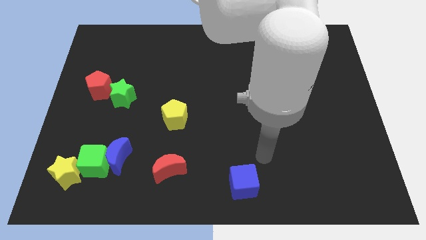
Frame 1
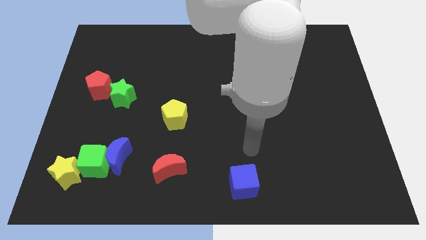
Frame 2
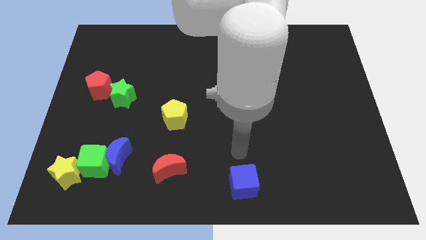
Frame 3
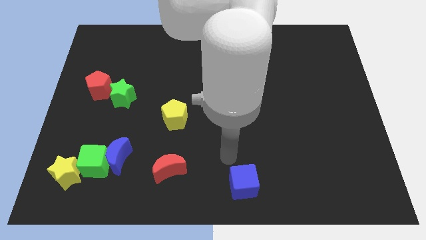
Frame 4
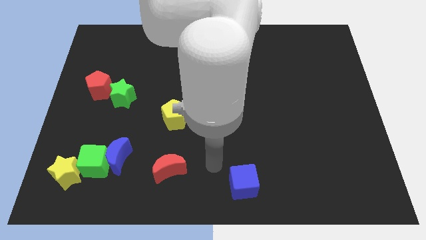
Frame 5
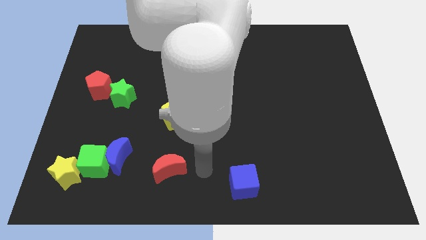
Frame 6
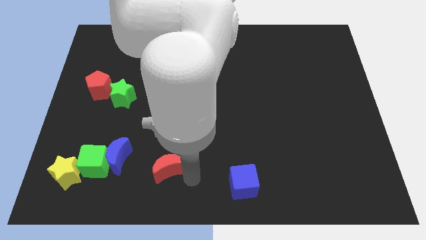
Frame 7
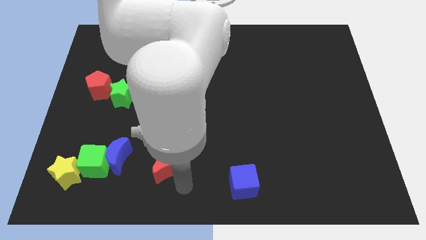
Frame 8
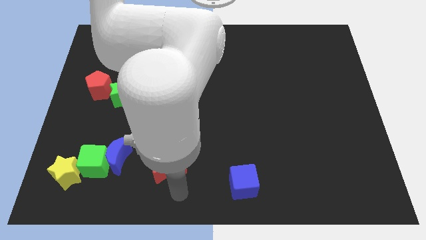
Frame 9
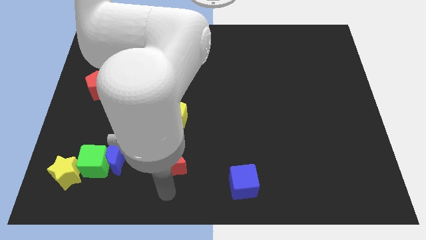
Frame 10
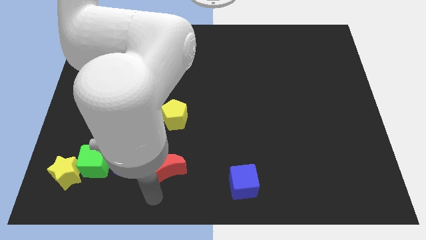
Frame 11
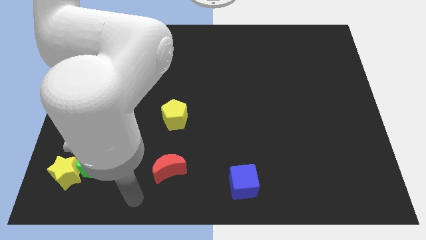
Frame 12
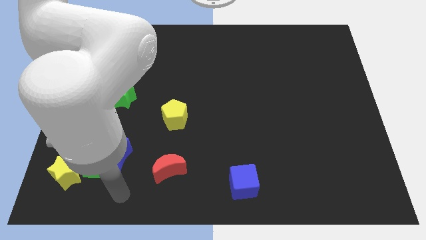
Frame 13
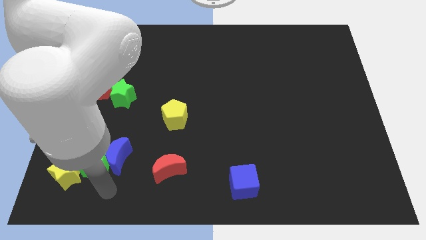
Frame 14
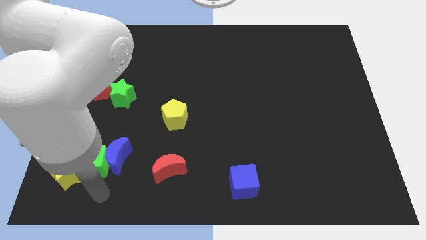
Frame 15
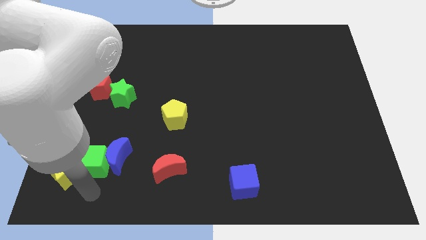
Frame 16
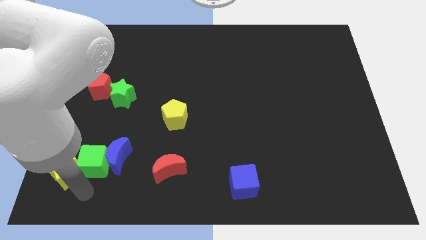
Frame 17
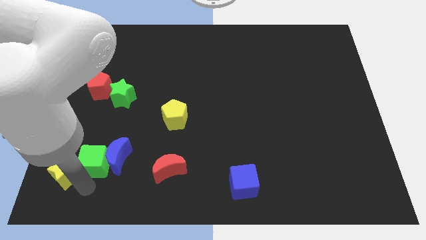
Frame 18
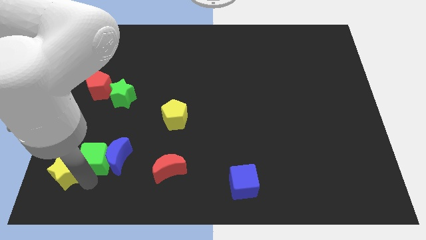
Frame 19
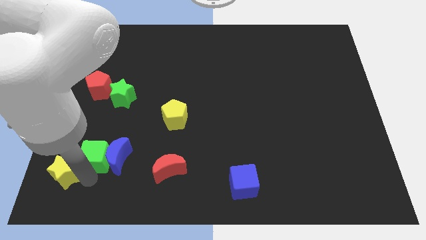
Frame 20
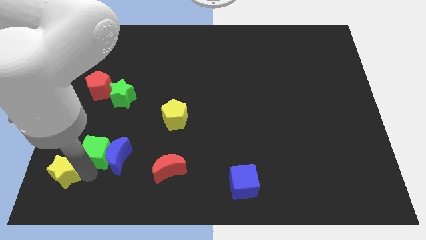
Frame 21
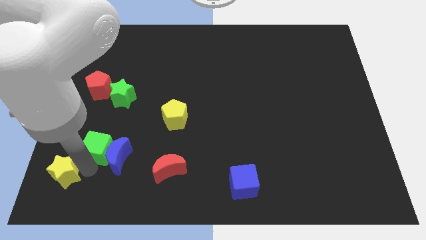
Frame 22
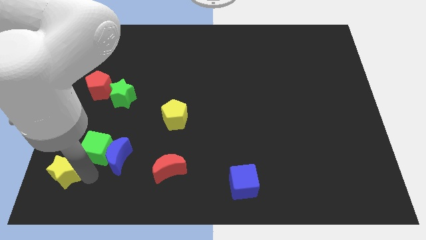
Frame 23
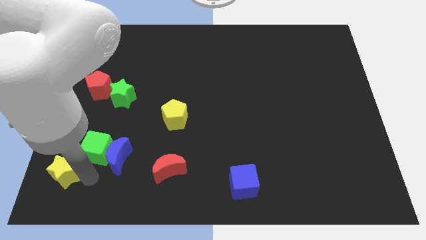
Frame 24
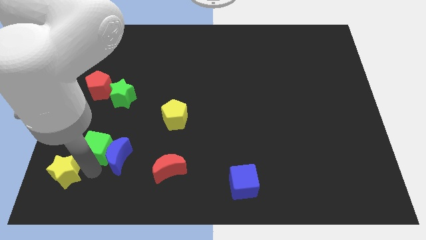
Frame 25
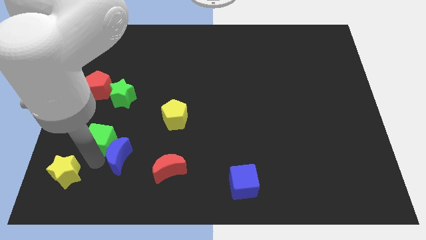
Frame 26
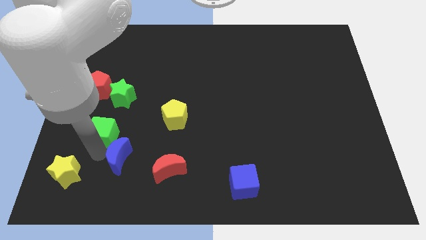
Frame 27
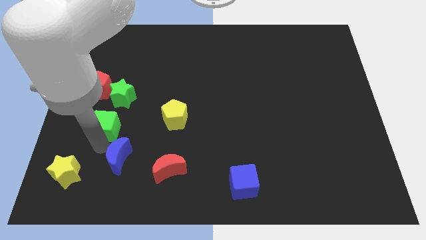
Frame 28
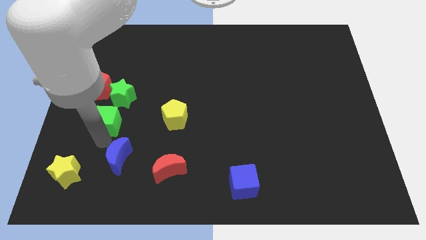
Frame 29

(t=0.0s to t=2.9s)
pull the green cube apart from the blue moon and yellow star

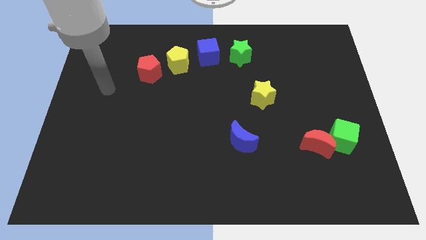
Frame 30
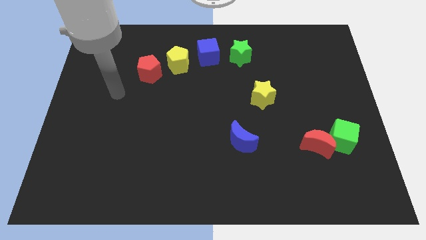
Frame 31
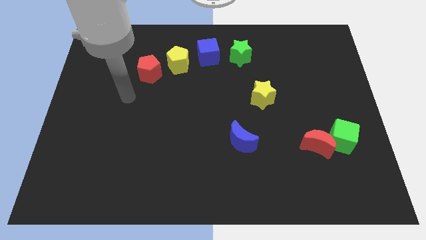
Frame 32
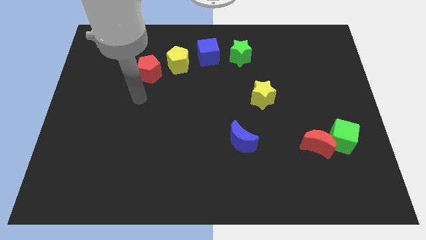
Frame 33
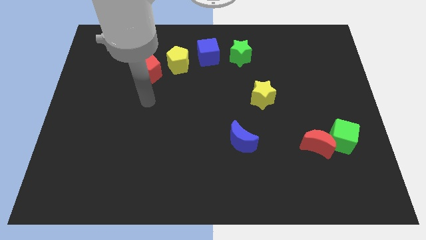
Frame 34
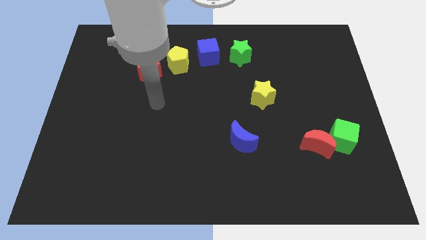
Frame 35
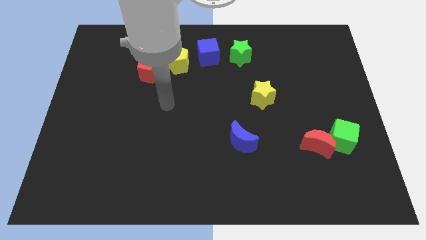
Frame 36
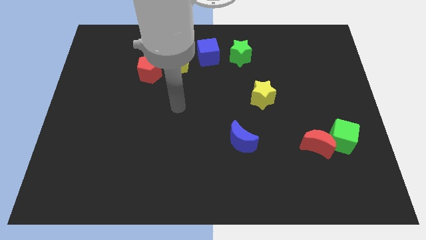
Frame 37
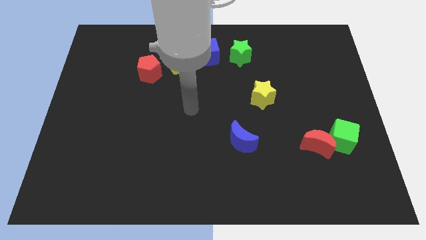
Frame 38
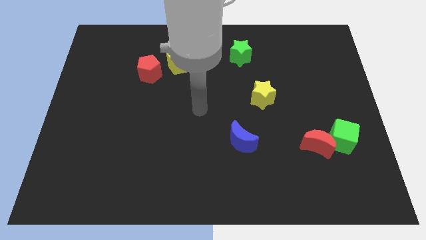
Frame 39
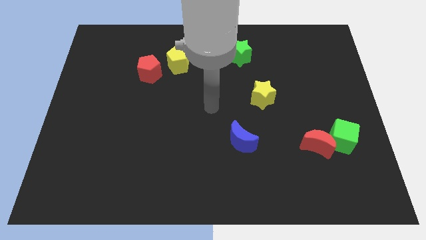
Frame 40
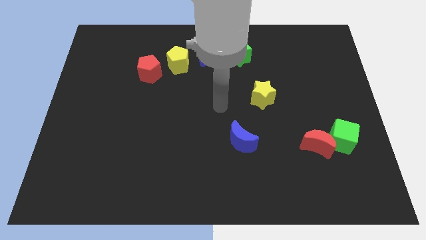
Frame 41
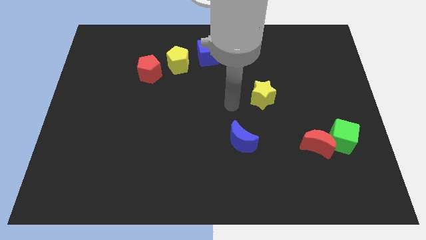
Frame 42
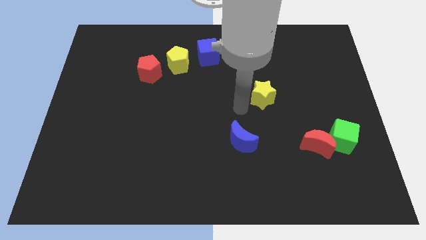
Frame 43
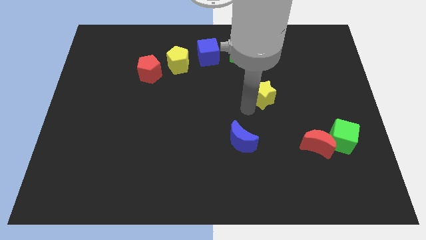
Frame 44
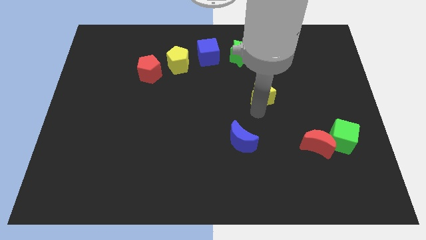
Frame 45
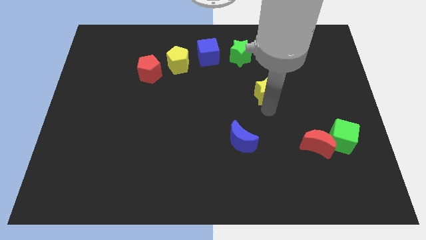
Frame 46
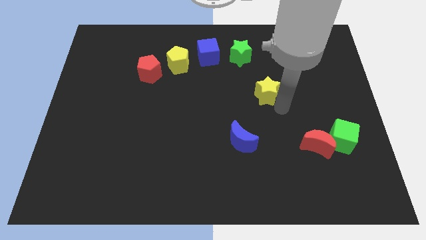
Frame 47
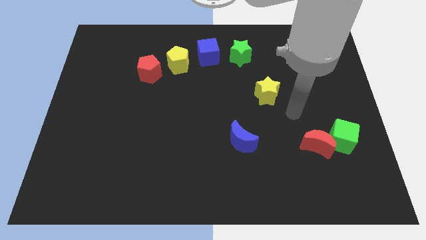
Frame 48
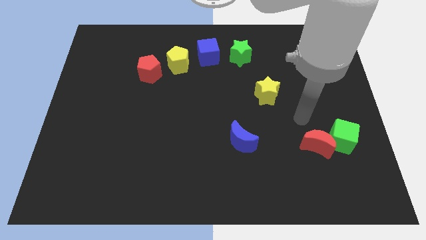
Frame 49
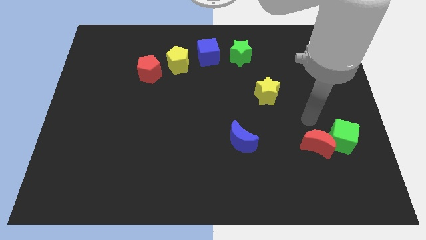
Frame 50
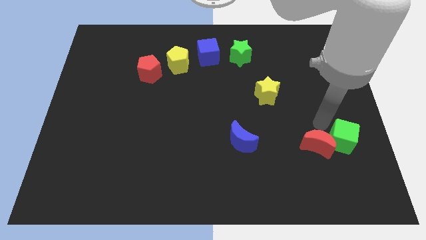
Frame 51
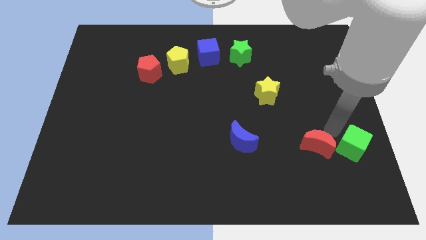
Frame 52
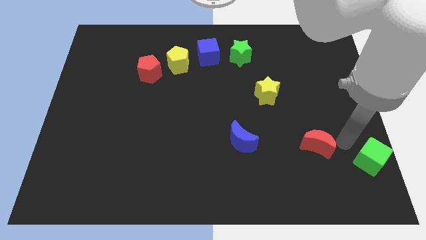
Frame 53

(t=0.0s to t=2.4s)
pull the red moon apart from the green cube

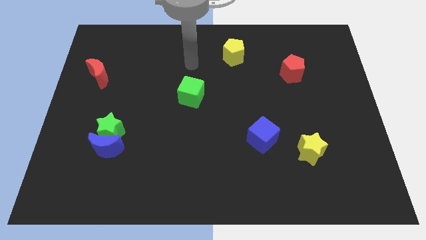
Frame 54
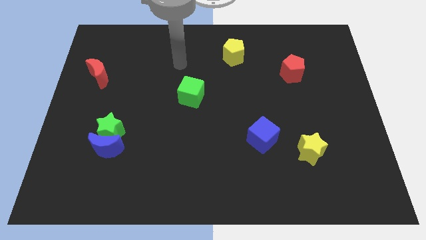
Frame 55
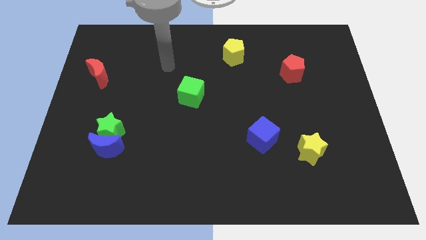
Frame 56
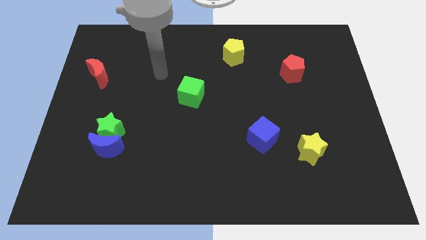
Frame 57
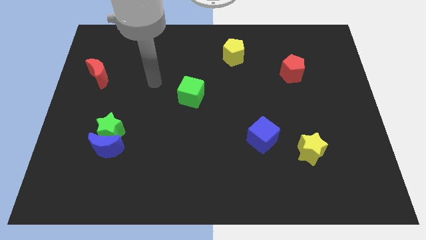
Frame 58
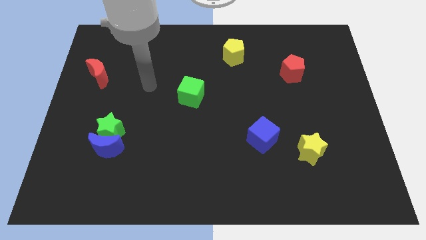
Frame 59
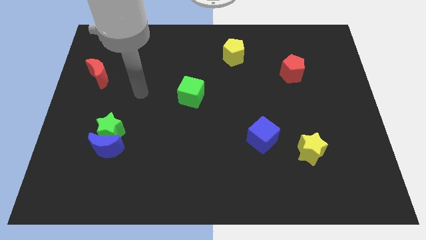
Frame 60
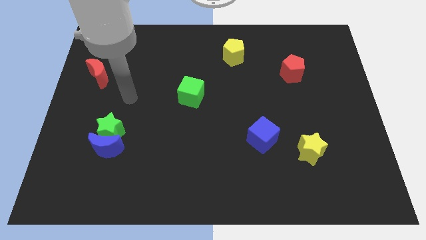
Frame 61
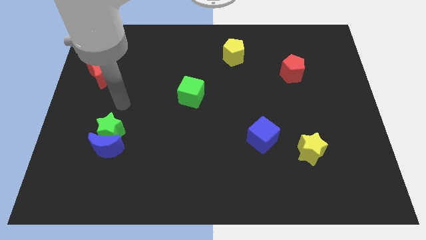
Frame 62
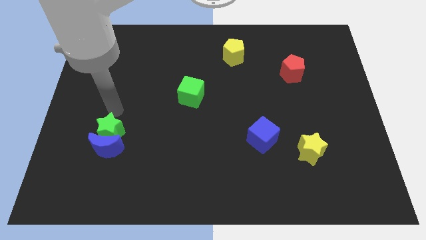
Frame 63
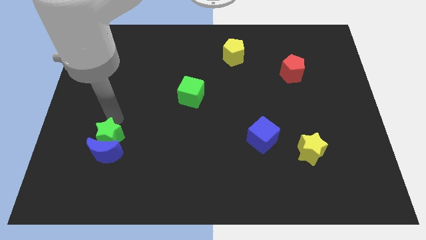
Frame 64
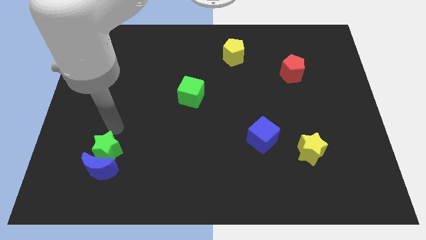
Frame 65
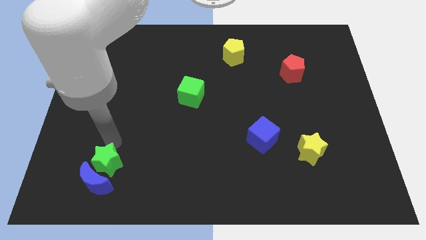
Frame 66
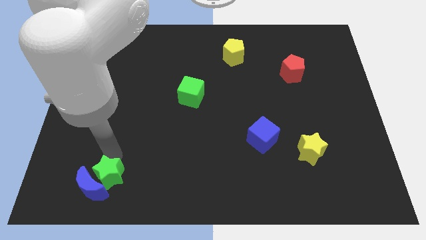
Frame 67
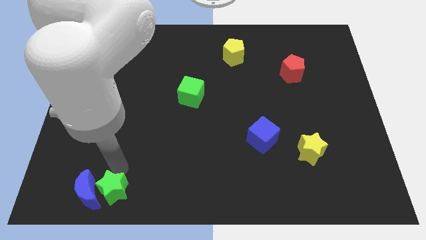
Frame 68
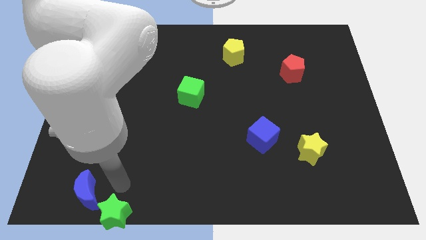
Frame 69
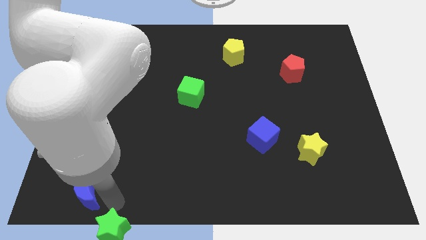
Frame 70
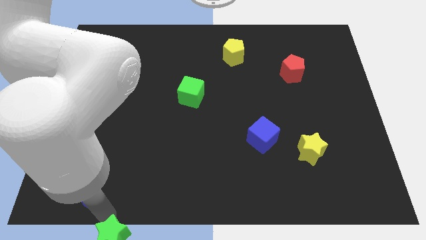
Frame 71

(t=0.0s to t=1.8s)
move the blue moon away from the green star

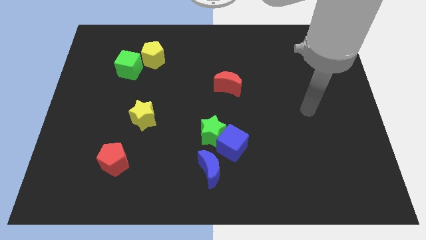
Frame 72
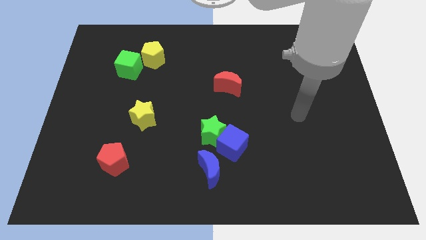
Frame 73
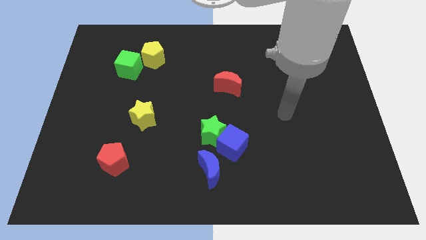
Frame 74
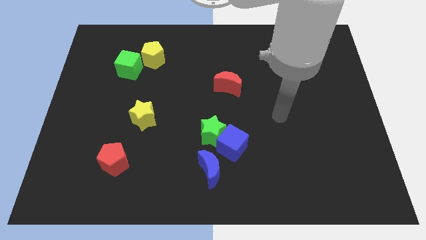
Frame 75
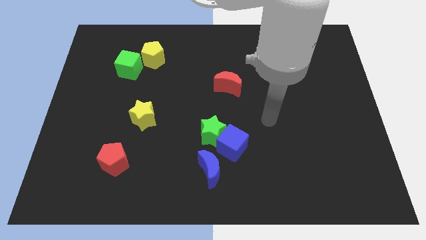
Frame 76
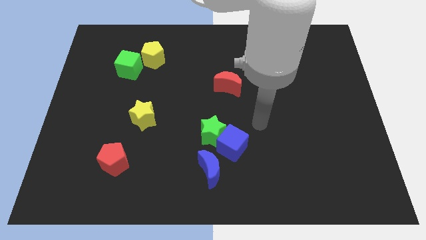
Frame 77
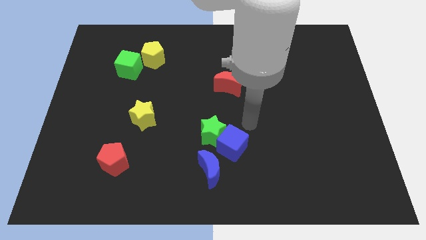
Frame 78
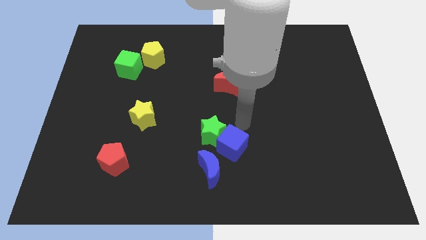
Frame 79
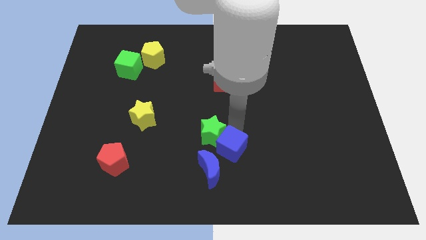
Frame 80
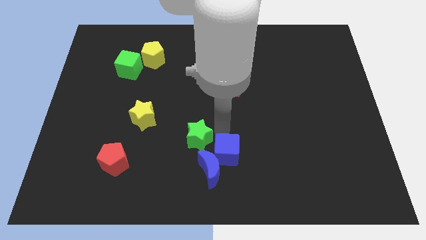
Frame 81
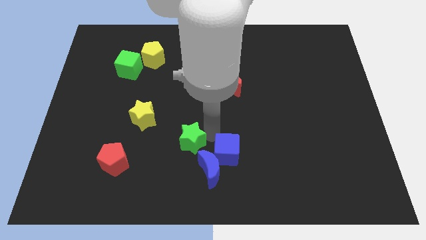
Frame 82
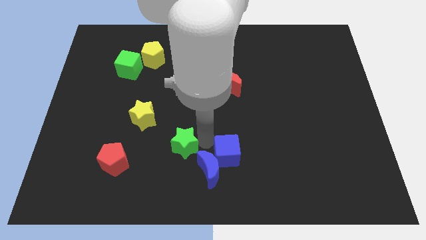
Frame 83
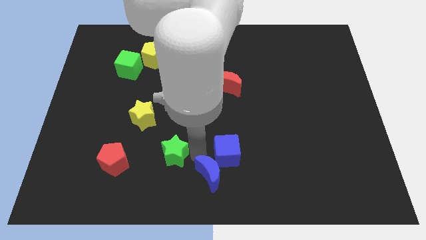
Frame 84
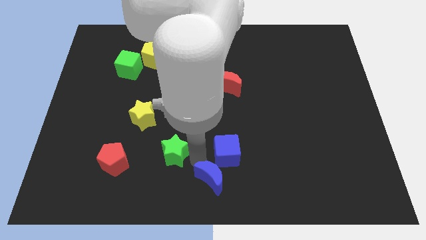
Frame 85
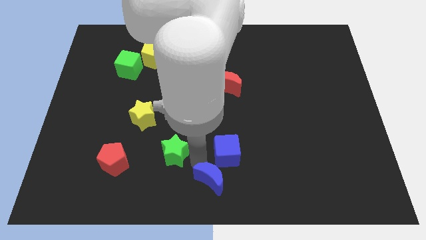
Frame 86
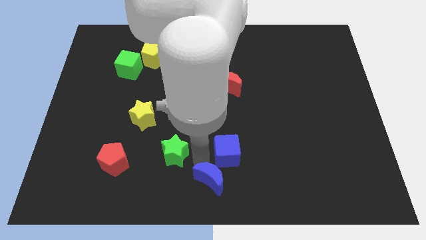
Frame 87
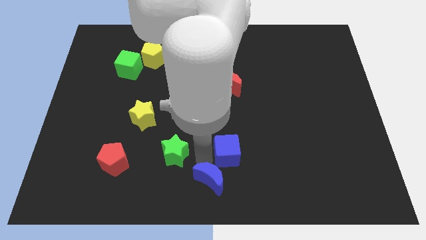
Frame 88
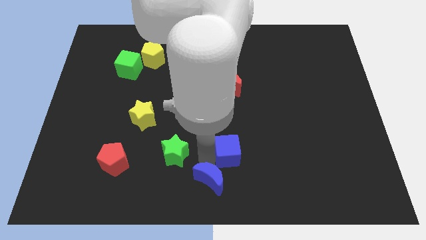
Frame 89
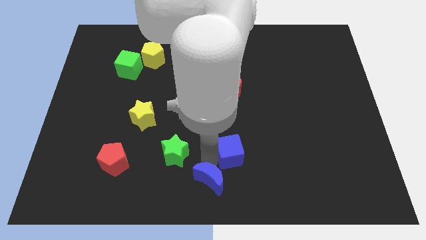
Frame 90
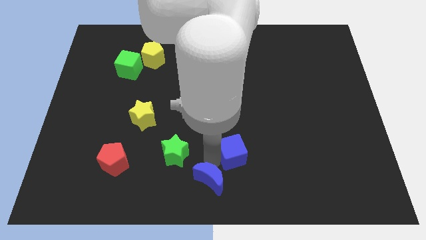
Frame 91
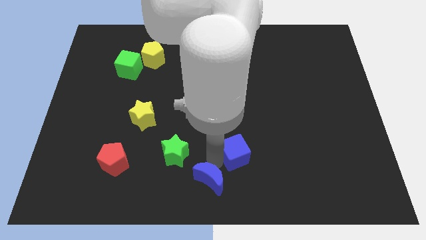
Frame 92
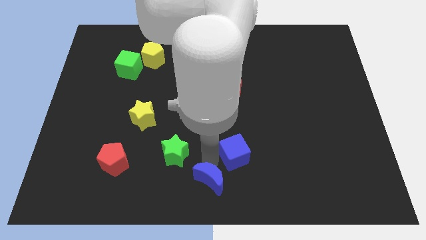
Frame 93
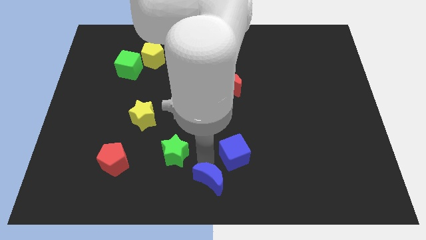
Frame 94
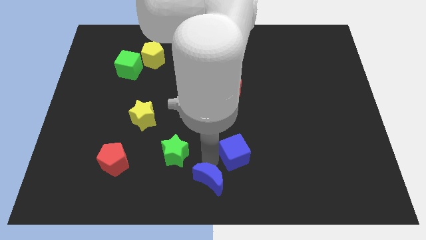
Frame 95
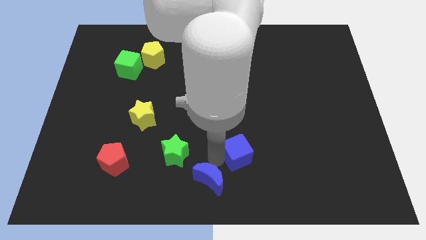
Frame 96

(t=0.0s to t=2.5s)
separate the blue cube from the green star and blue moon
